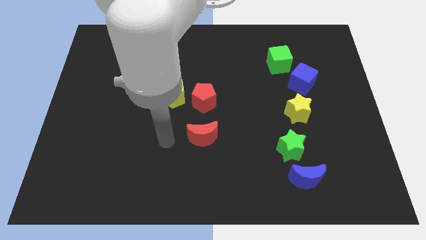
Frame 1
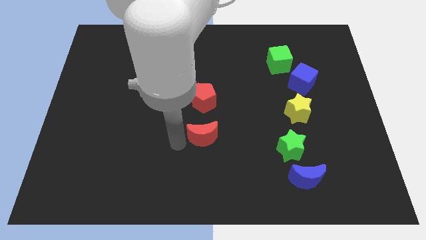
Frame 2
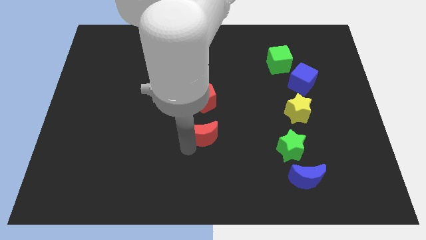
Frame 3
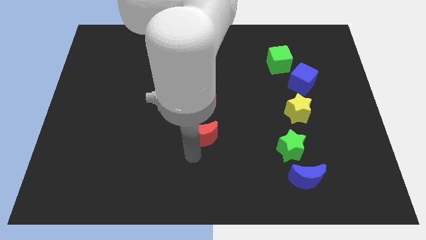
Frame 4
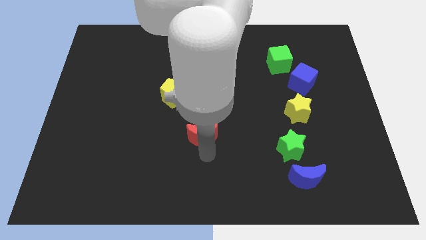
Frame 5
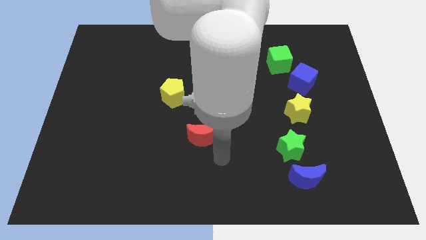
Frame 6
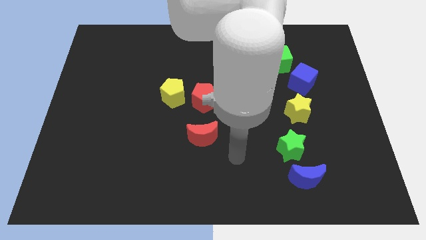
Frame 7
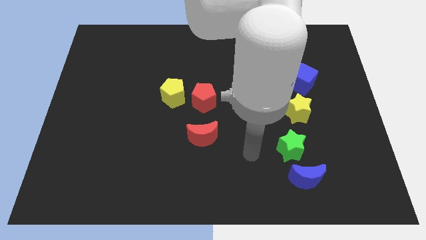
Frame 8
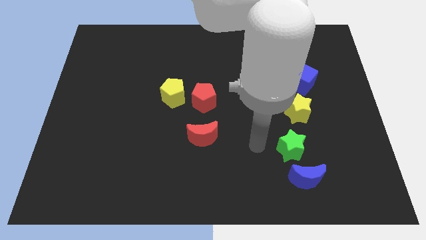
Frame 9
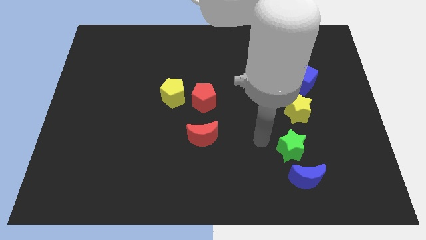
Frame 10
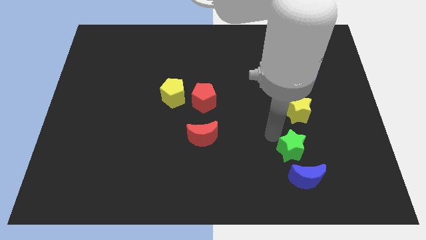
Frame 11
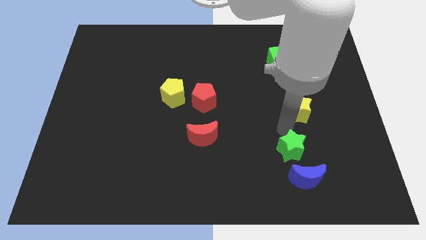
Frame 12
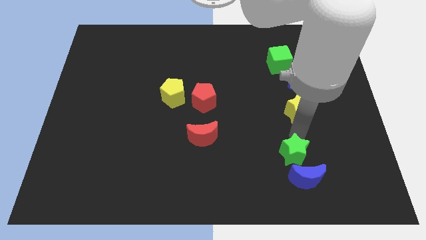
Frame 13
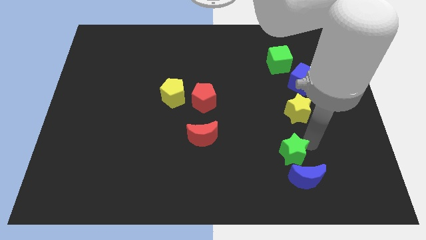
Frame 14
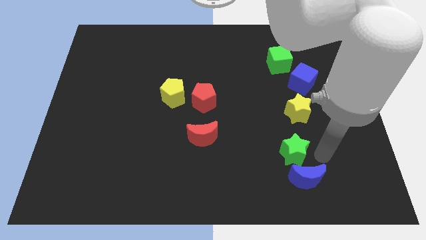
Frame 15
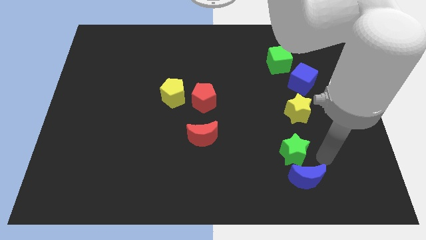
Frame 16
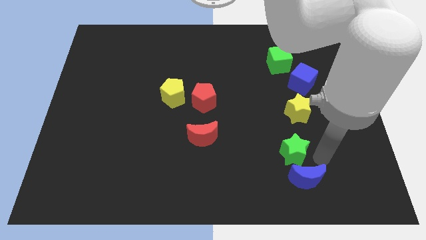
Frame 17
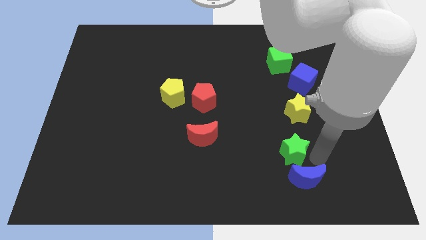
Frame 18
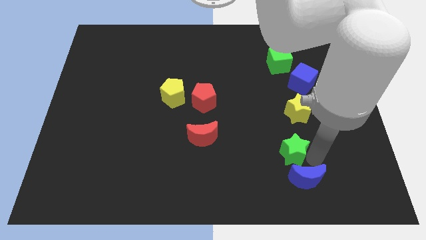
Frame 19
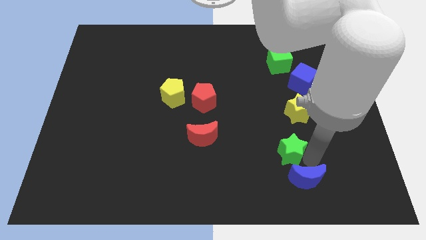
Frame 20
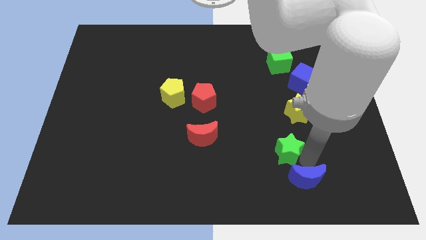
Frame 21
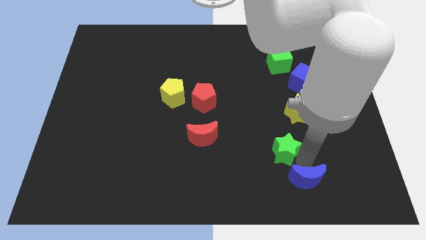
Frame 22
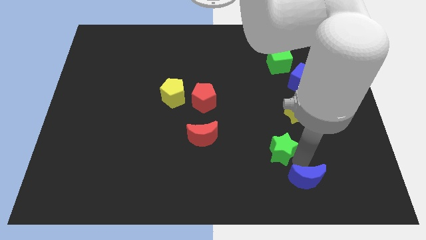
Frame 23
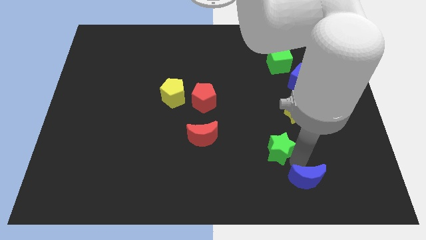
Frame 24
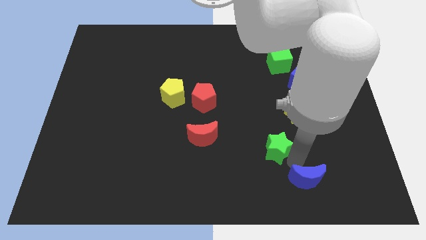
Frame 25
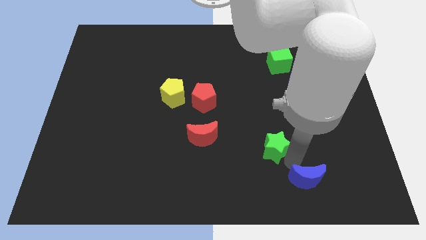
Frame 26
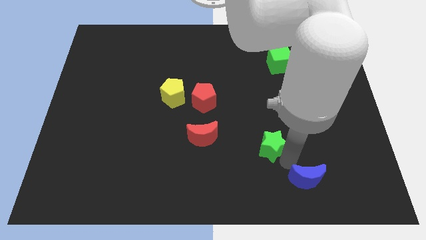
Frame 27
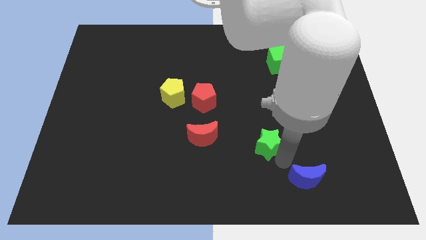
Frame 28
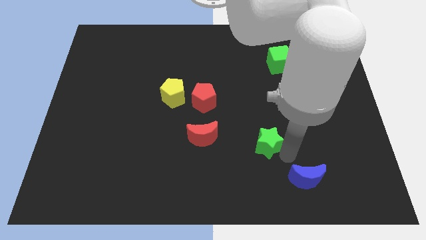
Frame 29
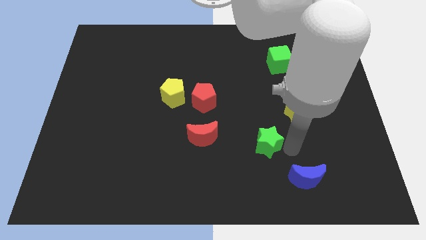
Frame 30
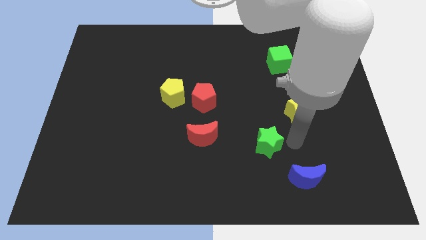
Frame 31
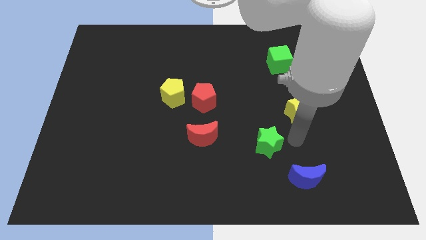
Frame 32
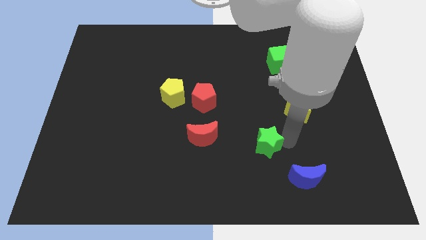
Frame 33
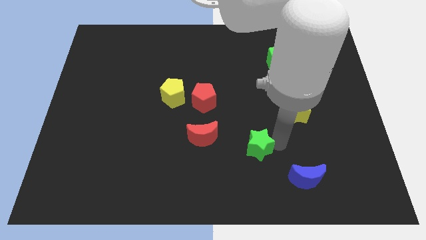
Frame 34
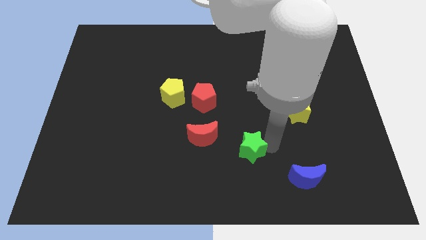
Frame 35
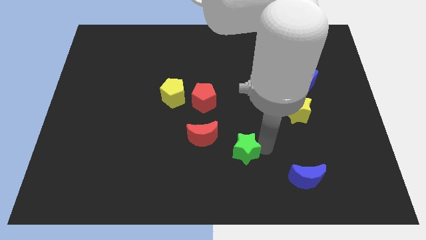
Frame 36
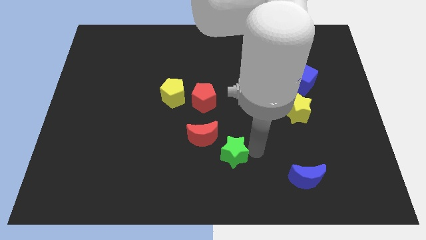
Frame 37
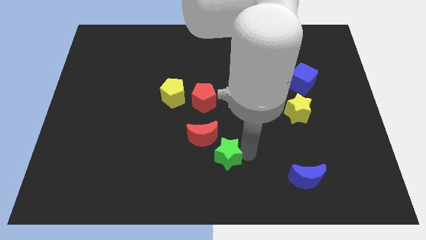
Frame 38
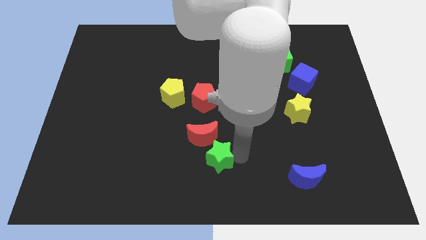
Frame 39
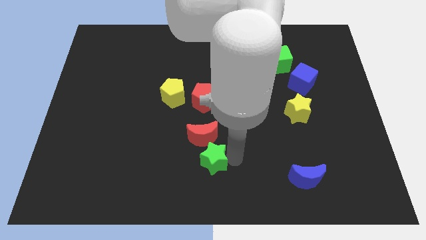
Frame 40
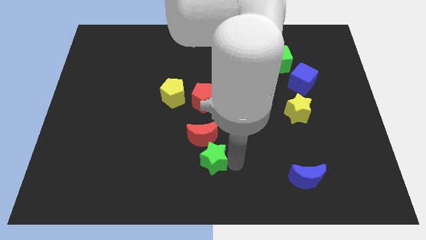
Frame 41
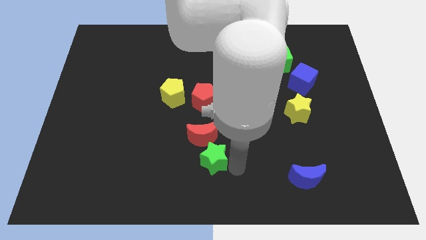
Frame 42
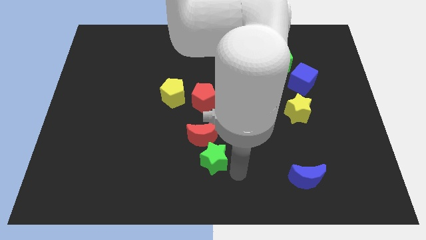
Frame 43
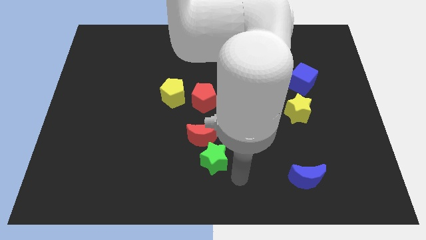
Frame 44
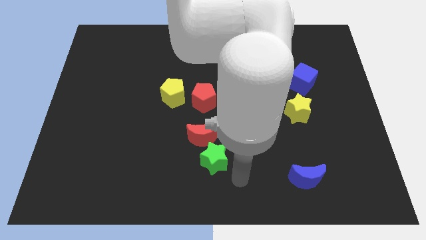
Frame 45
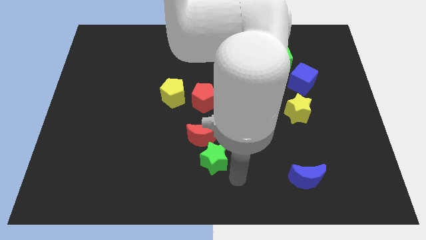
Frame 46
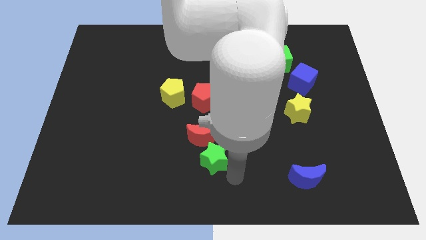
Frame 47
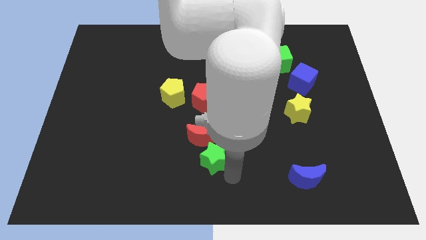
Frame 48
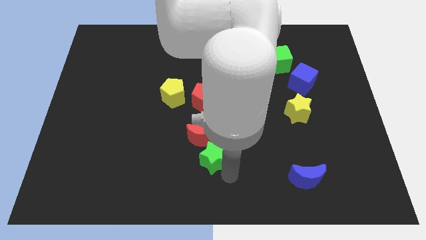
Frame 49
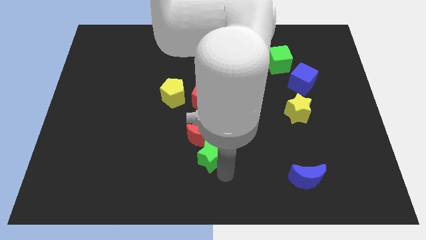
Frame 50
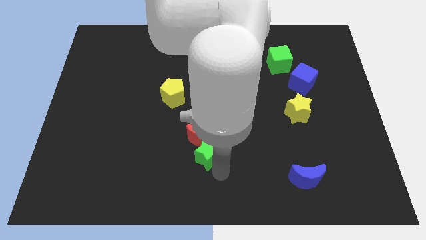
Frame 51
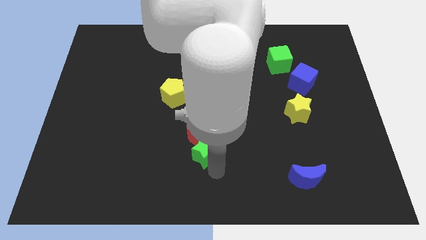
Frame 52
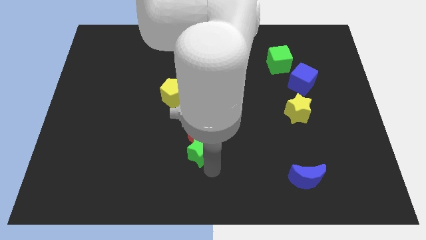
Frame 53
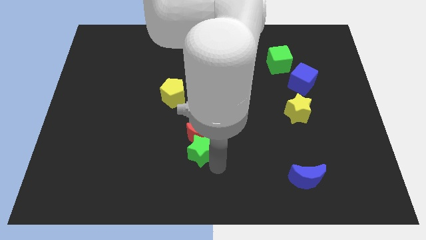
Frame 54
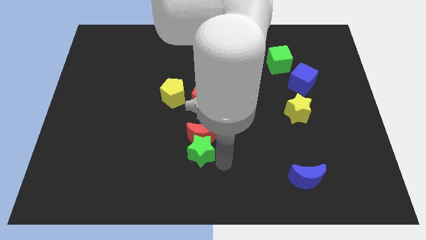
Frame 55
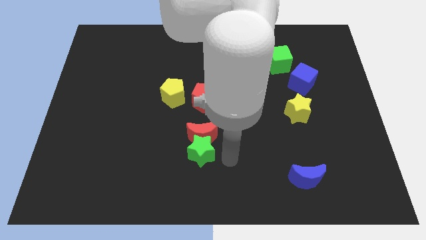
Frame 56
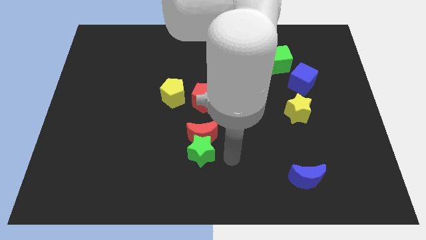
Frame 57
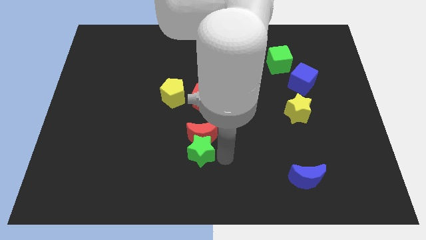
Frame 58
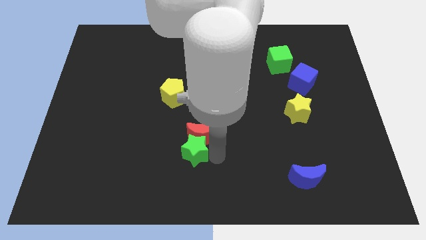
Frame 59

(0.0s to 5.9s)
push the green star to the left

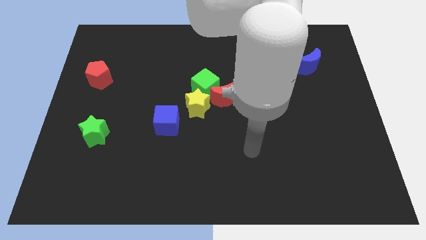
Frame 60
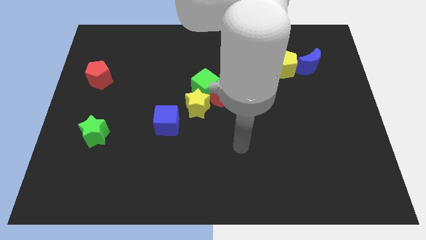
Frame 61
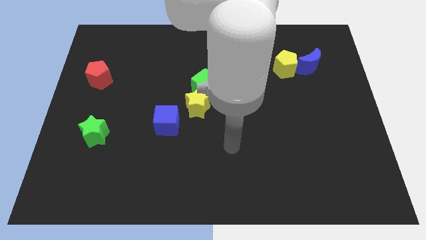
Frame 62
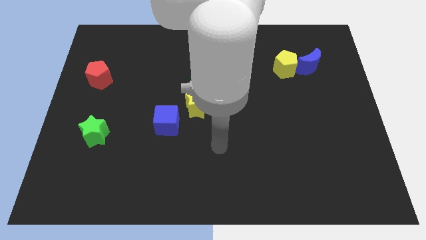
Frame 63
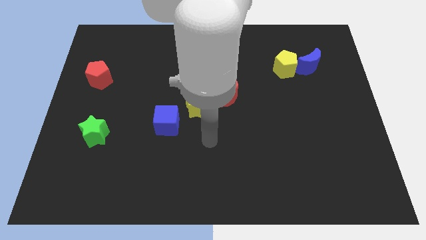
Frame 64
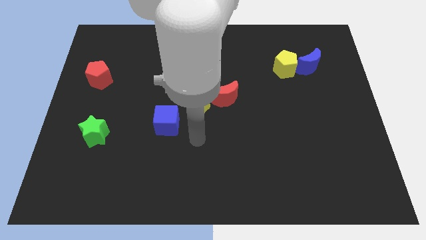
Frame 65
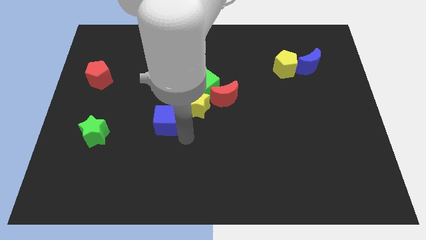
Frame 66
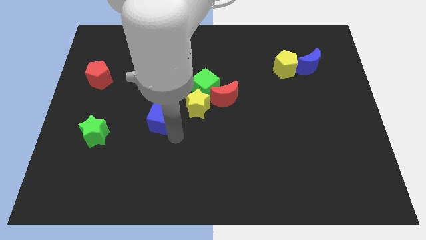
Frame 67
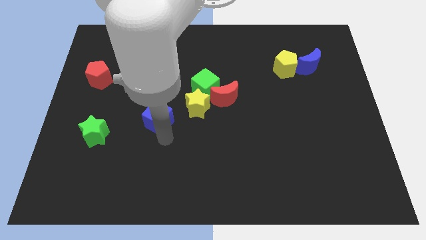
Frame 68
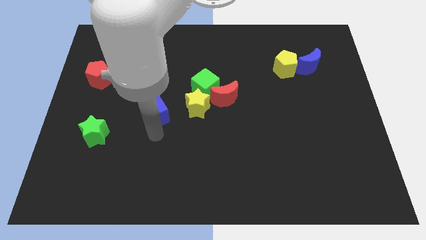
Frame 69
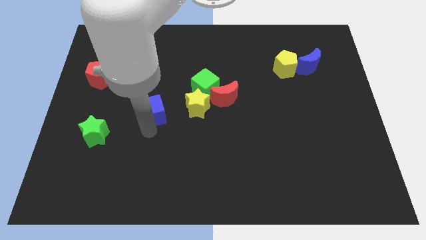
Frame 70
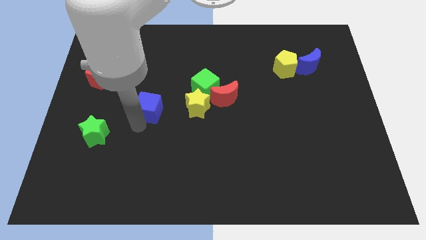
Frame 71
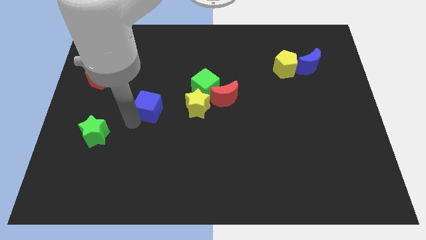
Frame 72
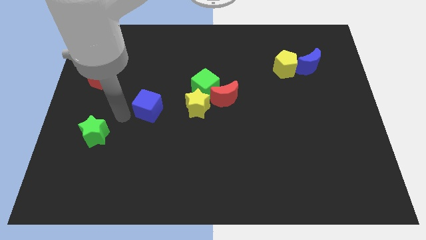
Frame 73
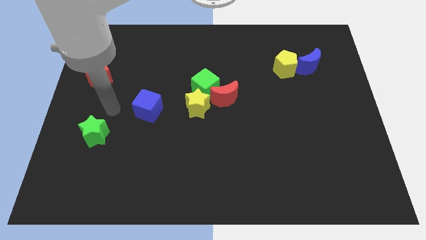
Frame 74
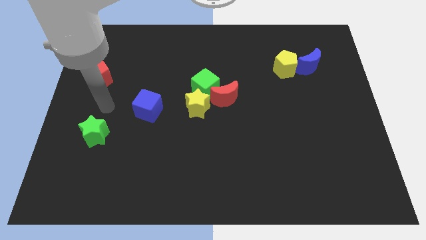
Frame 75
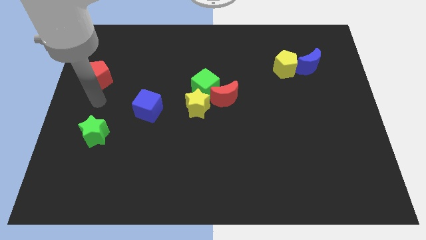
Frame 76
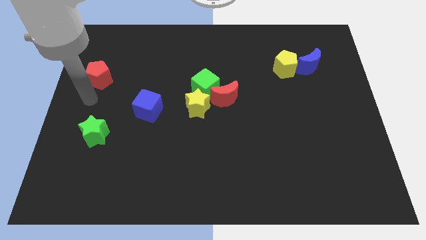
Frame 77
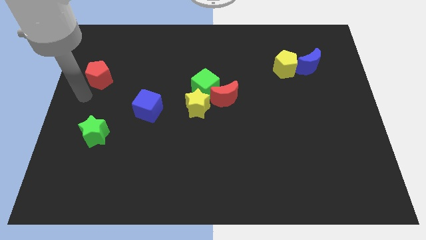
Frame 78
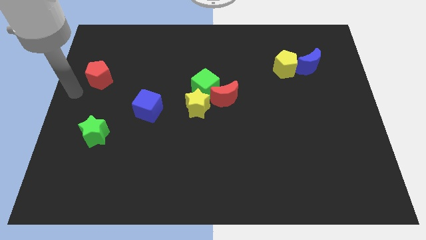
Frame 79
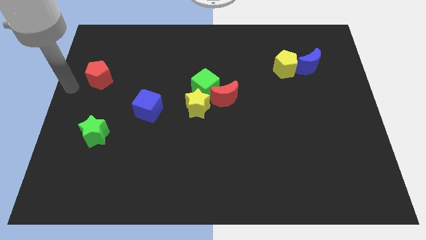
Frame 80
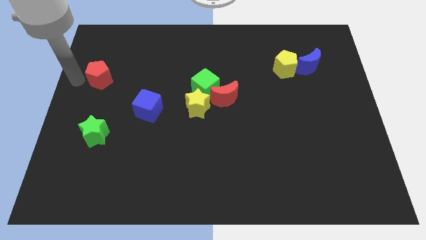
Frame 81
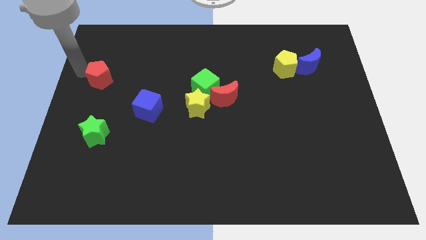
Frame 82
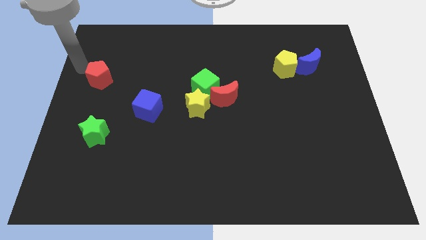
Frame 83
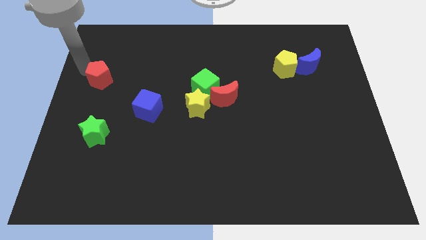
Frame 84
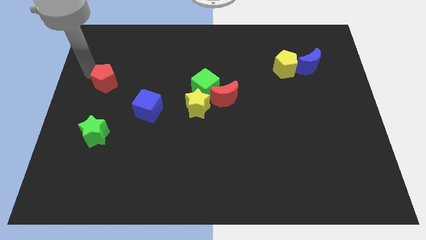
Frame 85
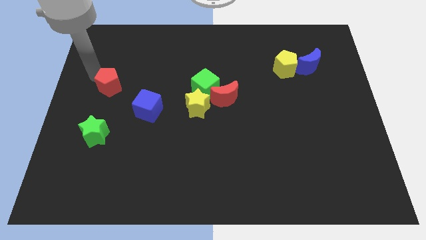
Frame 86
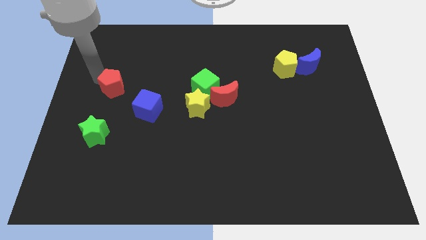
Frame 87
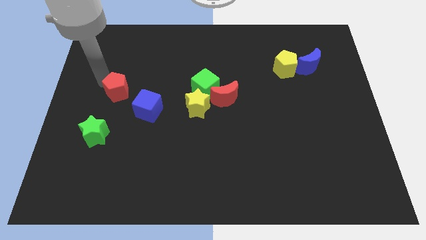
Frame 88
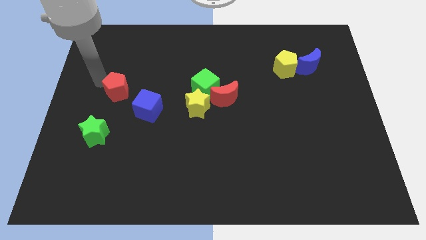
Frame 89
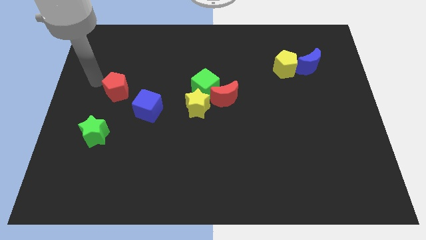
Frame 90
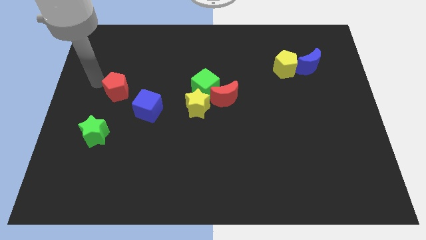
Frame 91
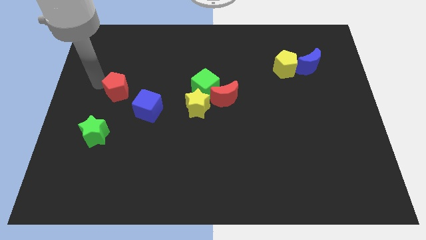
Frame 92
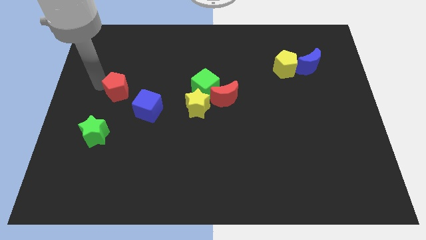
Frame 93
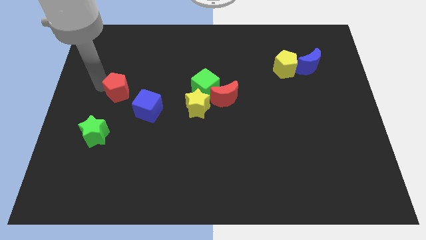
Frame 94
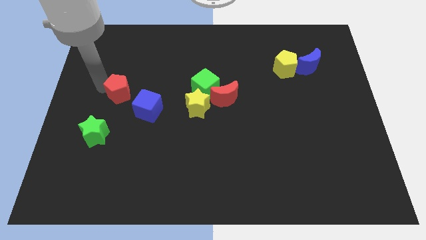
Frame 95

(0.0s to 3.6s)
push the red pentagon slightly down and then to the right
